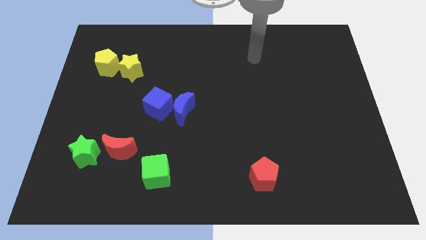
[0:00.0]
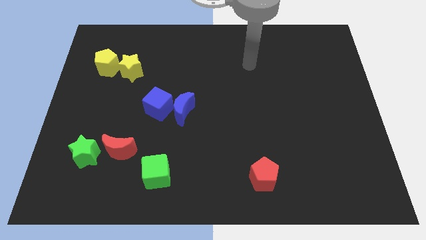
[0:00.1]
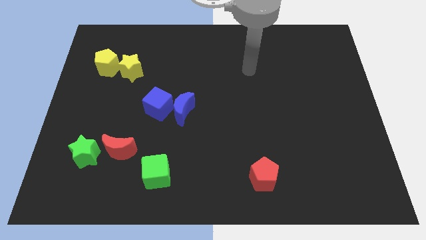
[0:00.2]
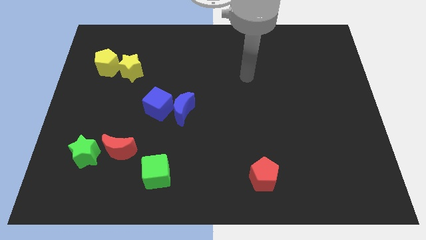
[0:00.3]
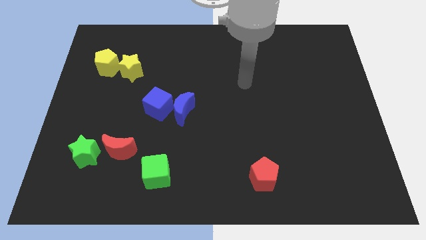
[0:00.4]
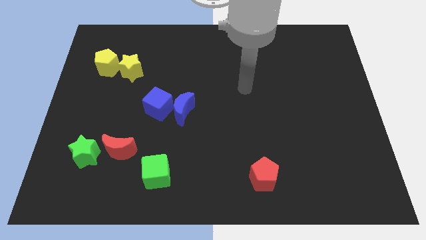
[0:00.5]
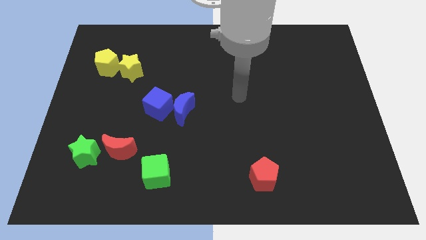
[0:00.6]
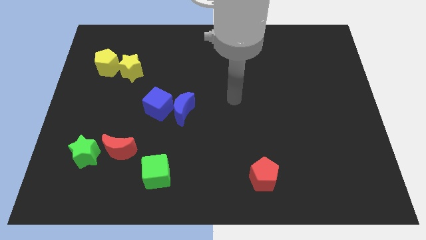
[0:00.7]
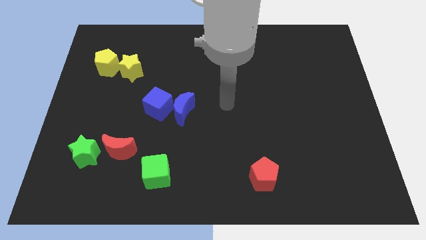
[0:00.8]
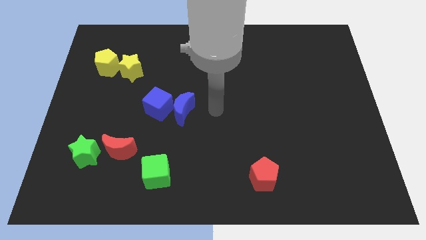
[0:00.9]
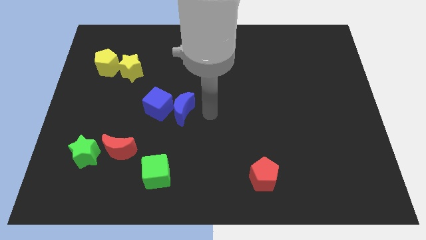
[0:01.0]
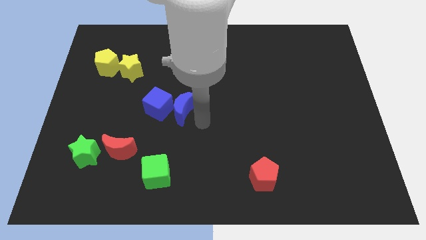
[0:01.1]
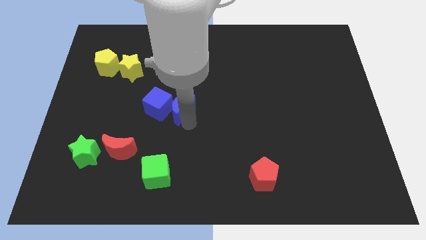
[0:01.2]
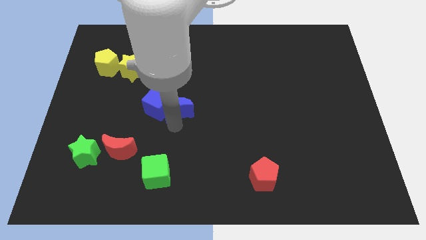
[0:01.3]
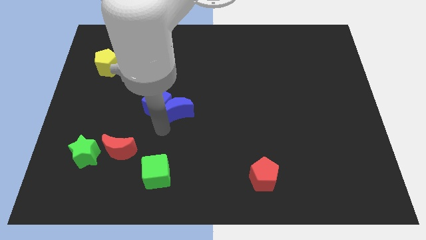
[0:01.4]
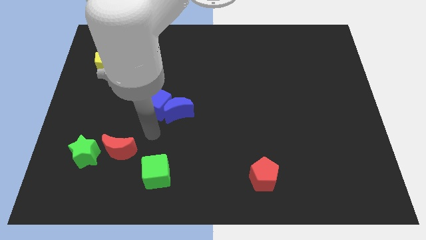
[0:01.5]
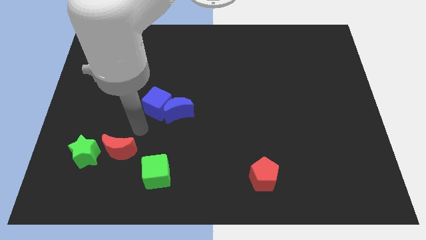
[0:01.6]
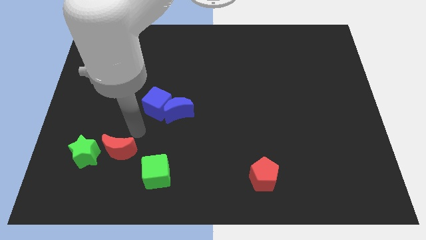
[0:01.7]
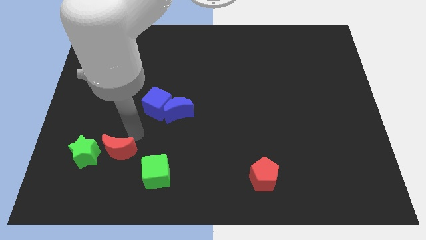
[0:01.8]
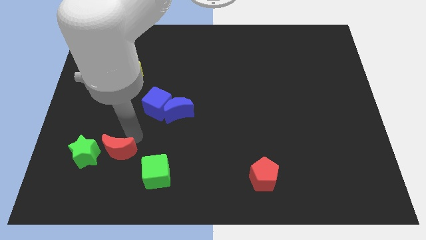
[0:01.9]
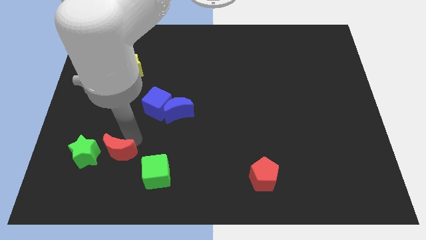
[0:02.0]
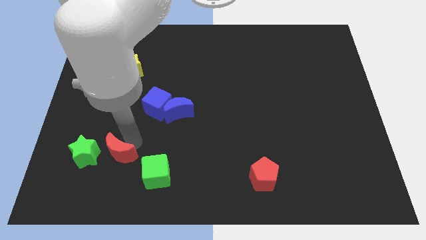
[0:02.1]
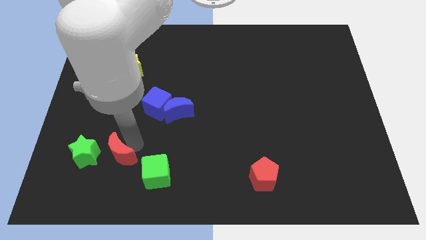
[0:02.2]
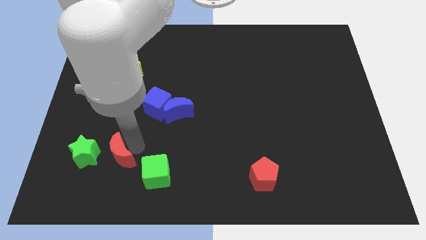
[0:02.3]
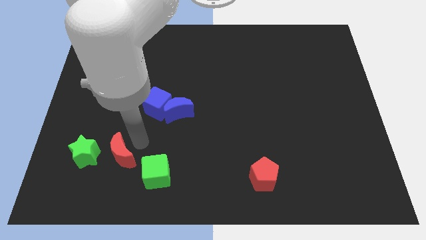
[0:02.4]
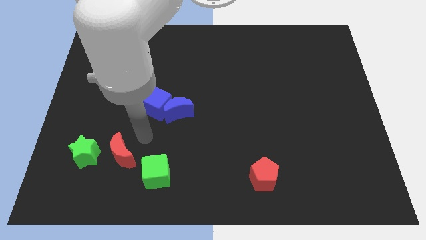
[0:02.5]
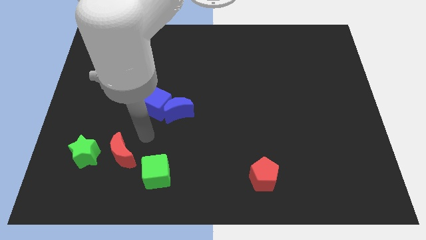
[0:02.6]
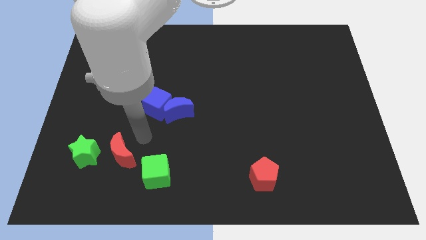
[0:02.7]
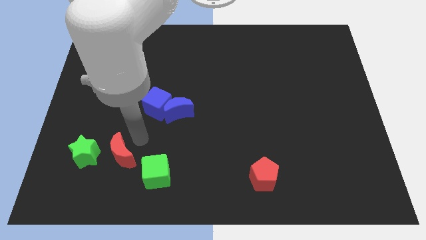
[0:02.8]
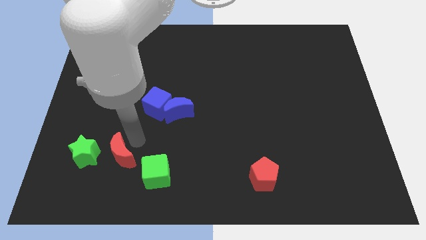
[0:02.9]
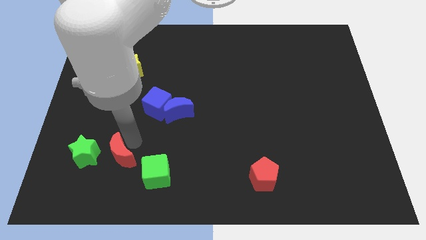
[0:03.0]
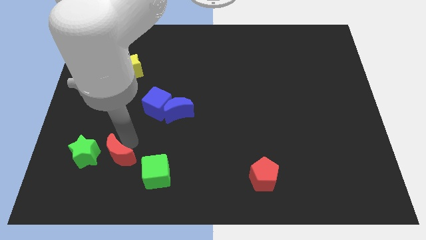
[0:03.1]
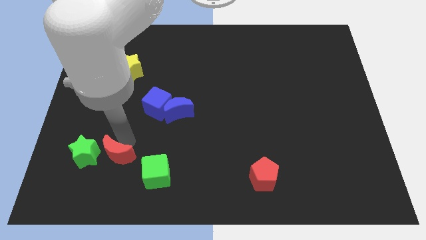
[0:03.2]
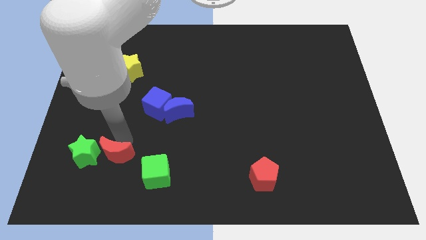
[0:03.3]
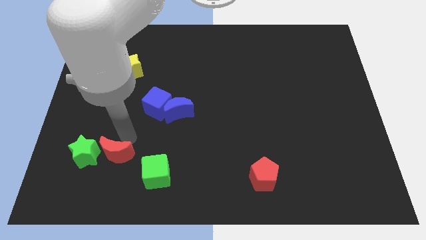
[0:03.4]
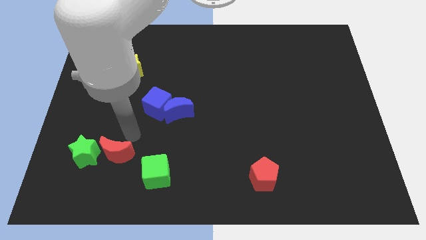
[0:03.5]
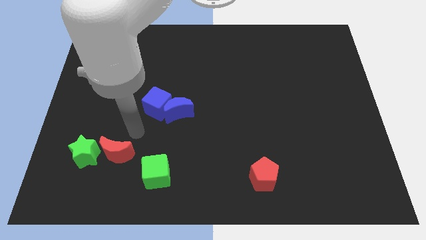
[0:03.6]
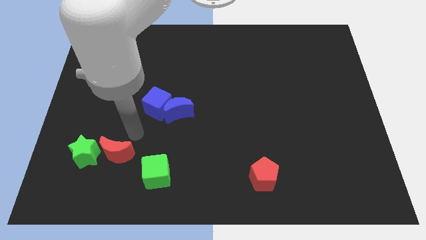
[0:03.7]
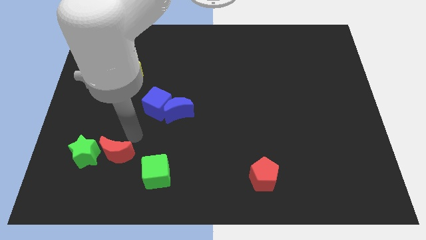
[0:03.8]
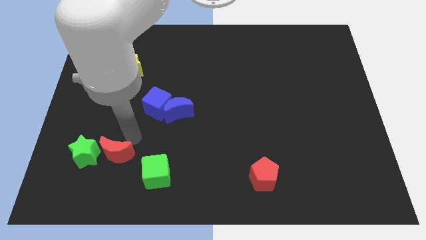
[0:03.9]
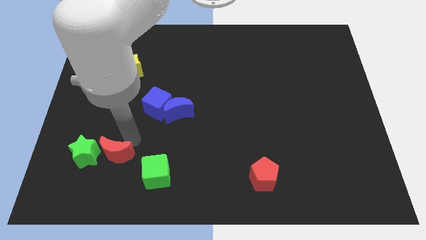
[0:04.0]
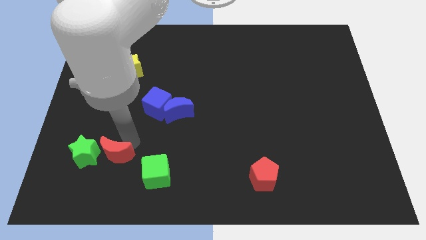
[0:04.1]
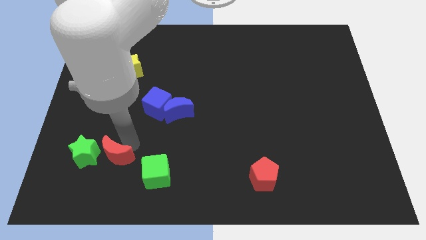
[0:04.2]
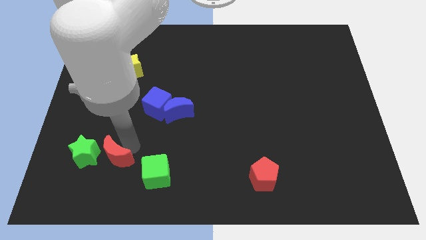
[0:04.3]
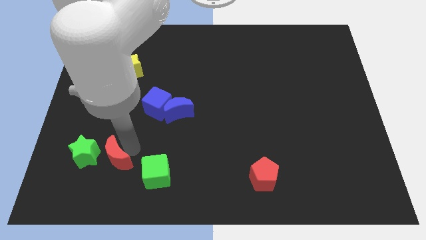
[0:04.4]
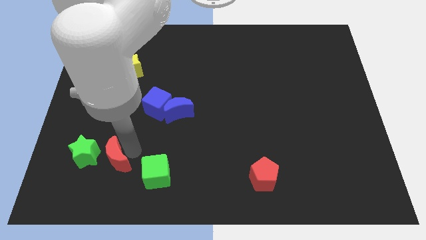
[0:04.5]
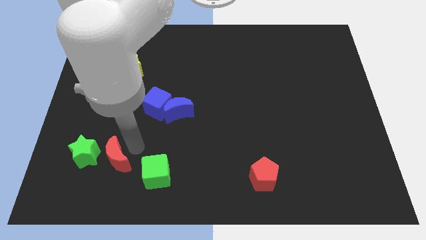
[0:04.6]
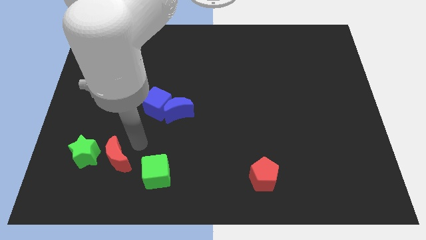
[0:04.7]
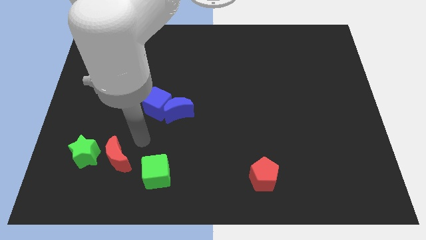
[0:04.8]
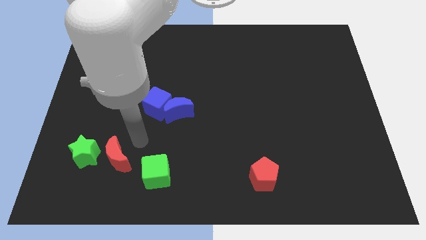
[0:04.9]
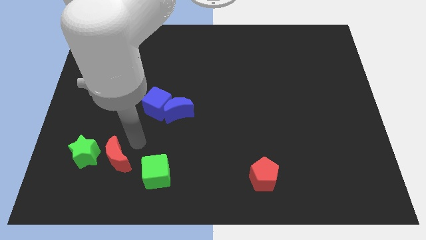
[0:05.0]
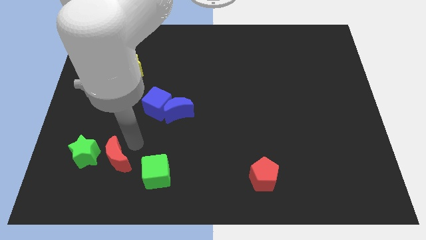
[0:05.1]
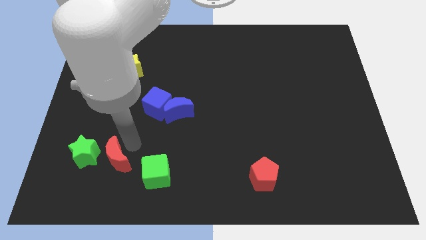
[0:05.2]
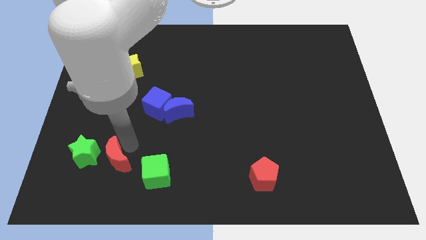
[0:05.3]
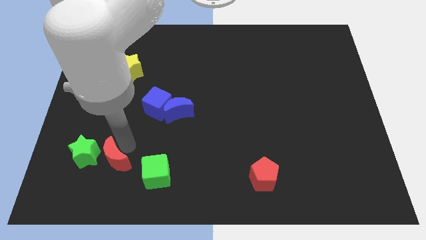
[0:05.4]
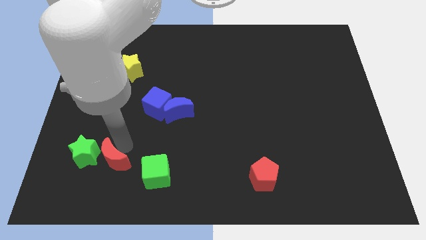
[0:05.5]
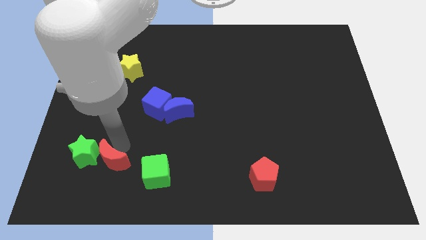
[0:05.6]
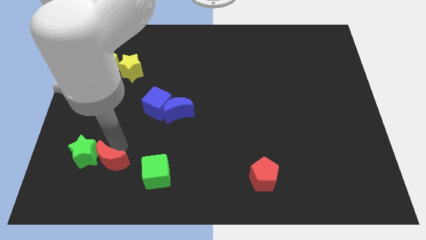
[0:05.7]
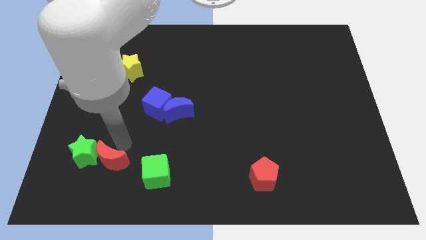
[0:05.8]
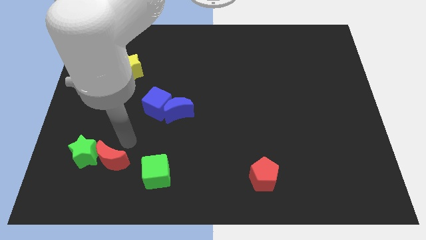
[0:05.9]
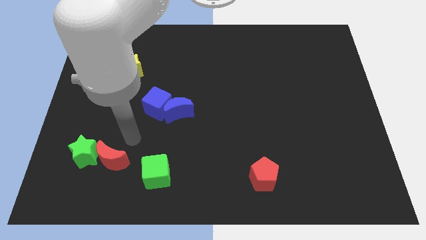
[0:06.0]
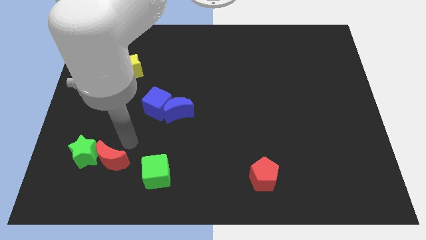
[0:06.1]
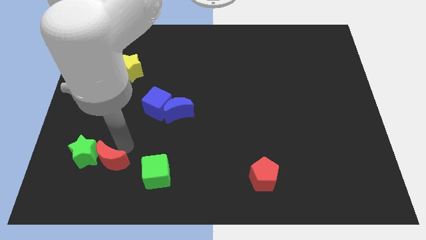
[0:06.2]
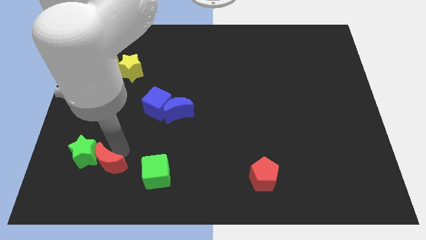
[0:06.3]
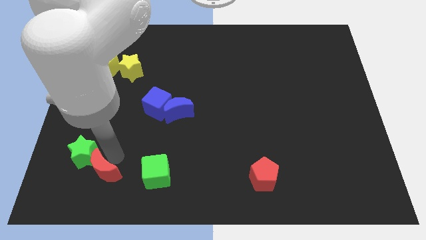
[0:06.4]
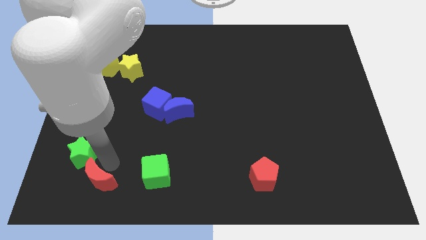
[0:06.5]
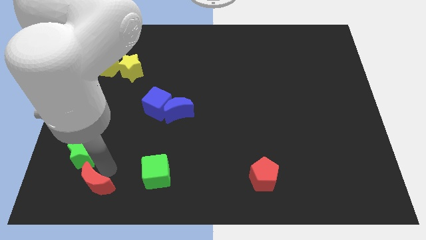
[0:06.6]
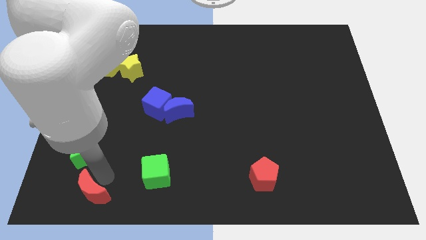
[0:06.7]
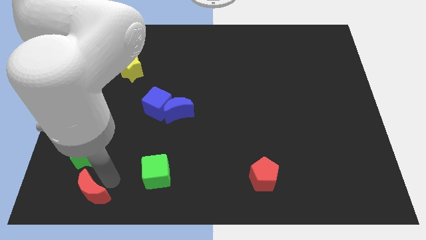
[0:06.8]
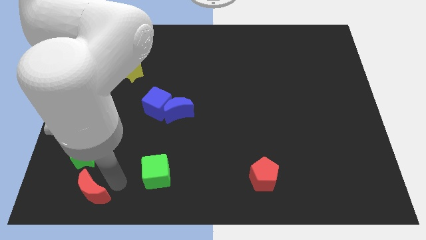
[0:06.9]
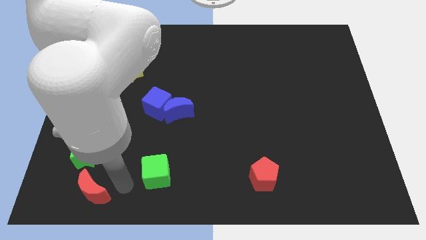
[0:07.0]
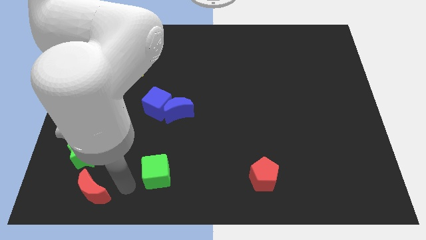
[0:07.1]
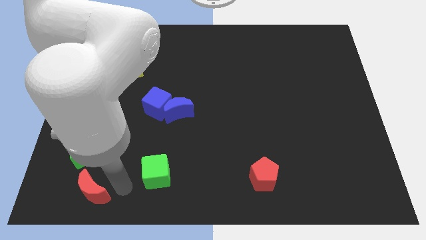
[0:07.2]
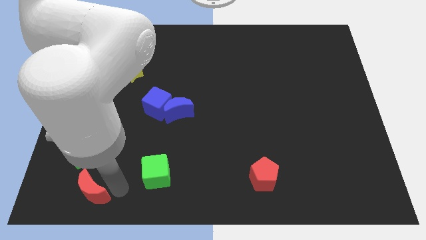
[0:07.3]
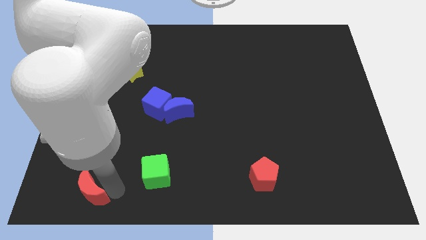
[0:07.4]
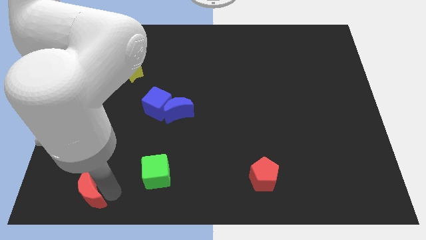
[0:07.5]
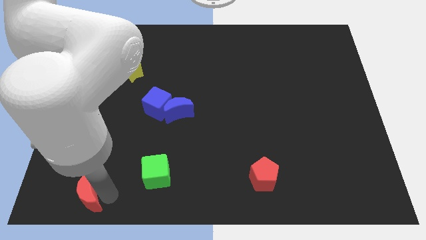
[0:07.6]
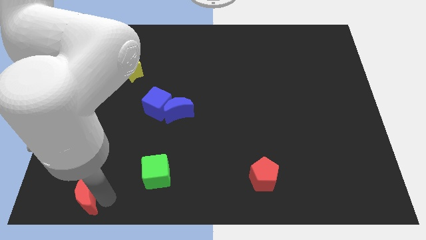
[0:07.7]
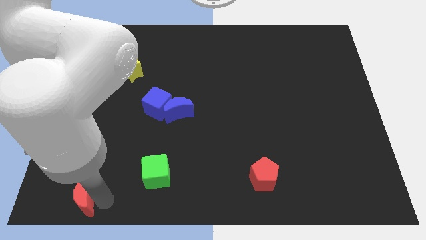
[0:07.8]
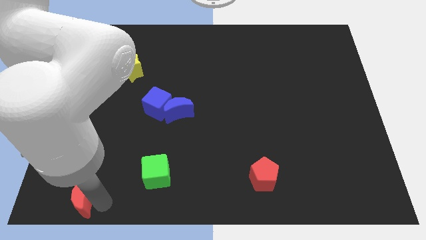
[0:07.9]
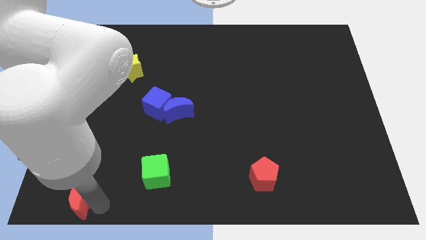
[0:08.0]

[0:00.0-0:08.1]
move the red moon to the bottom left of the board
